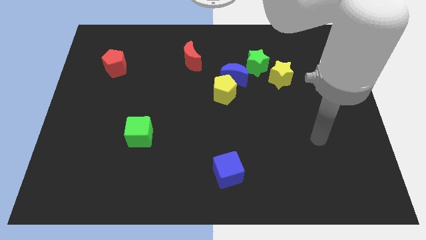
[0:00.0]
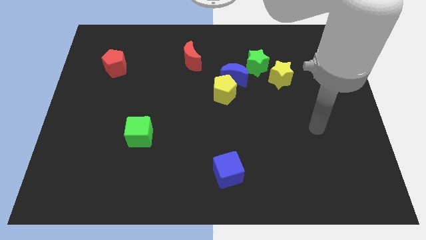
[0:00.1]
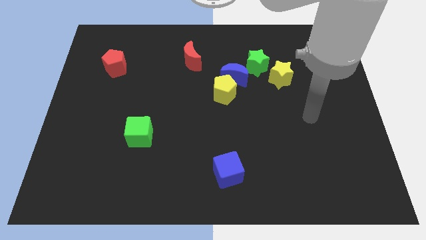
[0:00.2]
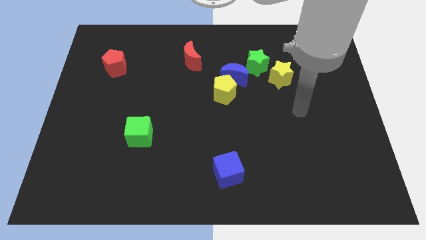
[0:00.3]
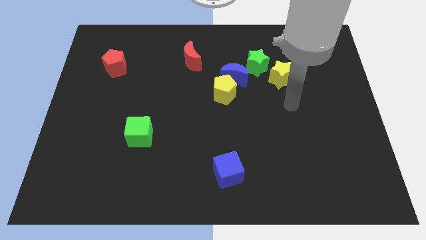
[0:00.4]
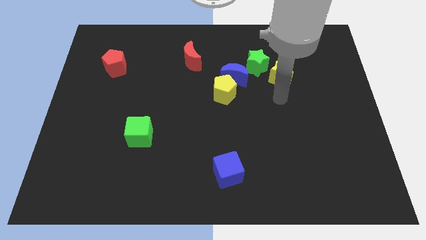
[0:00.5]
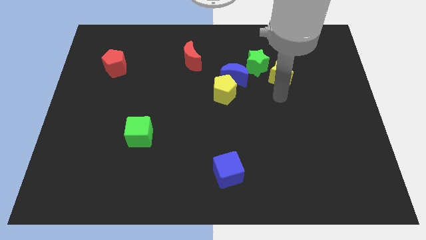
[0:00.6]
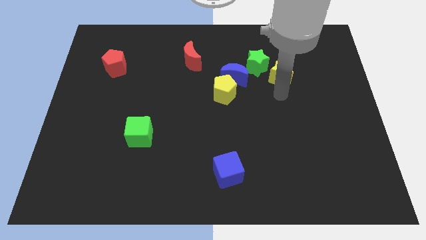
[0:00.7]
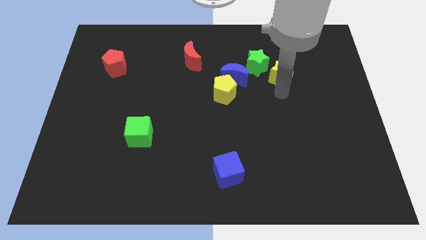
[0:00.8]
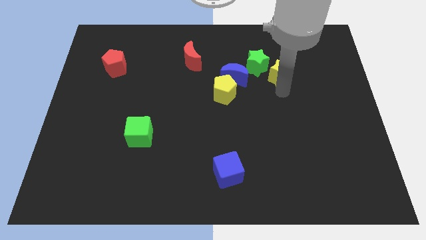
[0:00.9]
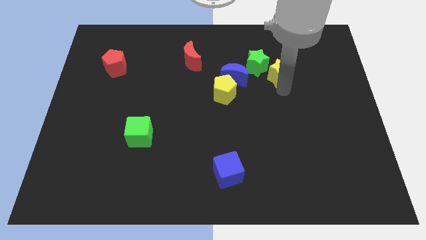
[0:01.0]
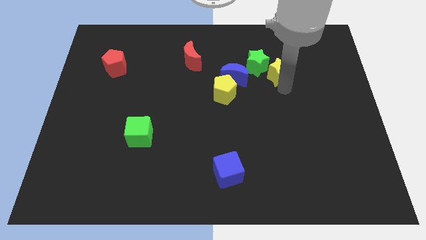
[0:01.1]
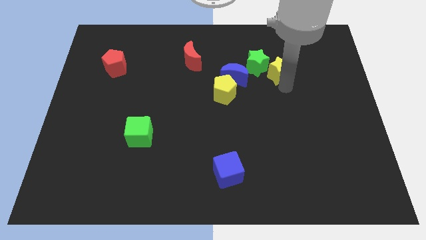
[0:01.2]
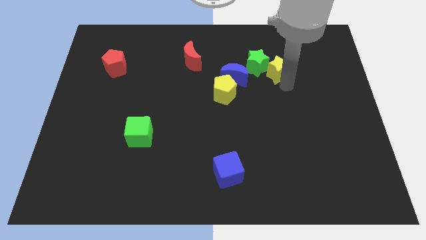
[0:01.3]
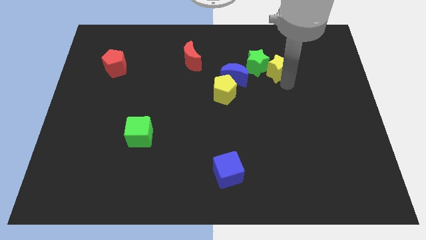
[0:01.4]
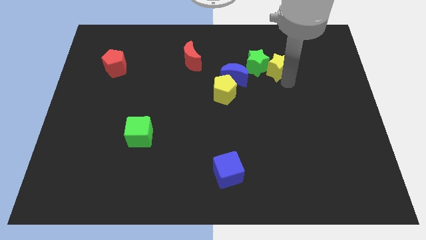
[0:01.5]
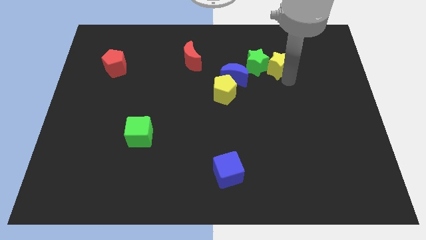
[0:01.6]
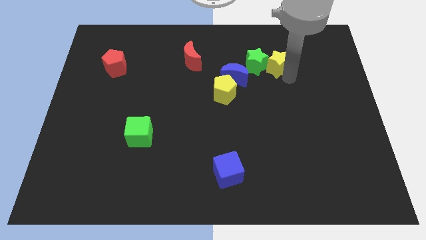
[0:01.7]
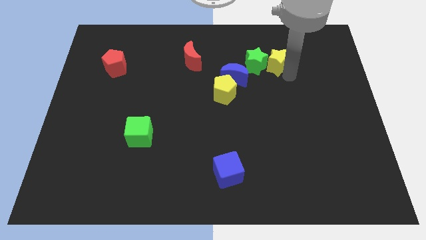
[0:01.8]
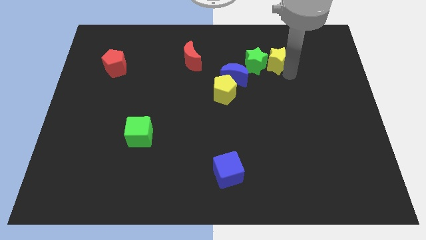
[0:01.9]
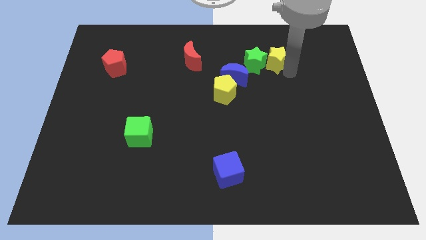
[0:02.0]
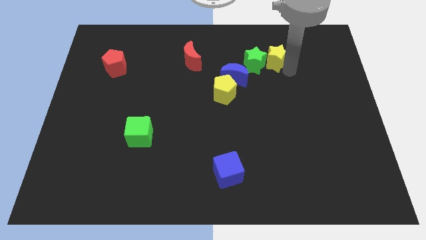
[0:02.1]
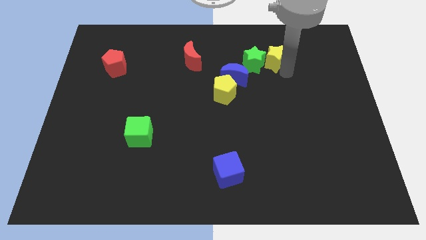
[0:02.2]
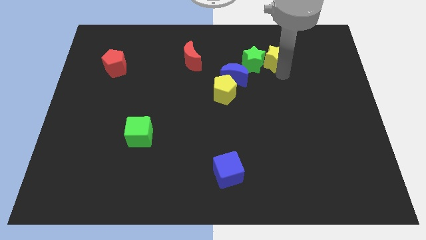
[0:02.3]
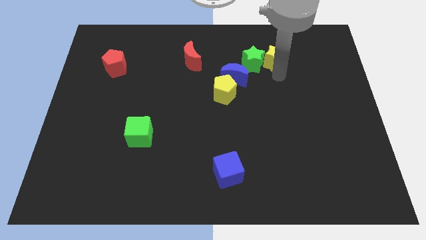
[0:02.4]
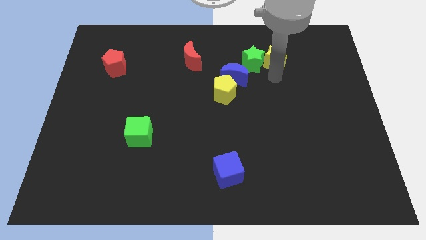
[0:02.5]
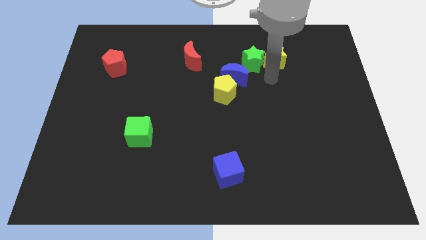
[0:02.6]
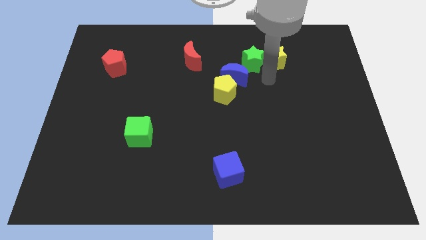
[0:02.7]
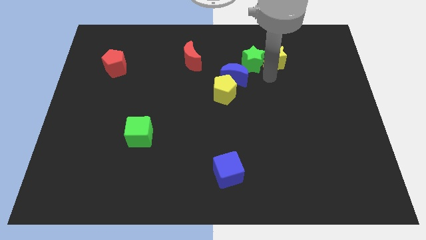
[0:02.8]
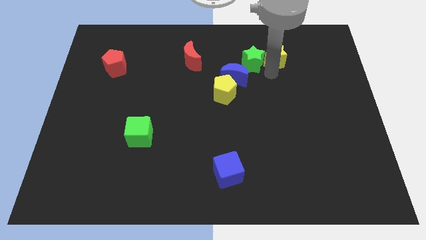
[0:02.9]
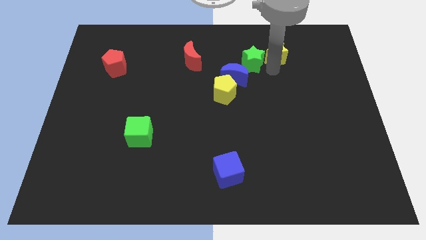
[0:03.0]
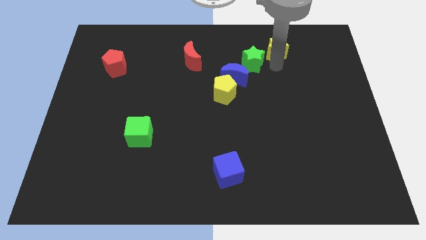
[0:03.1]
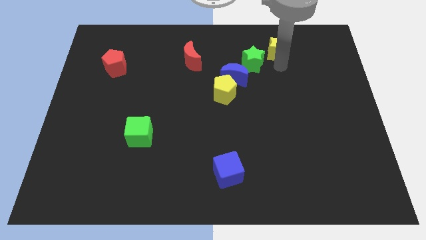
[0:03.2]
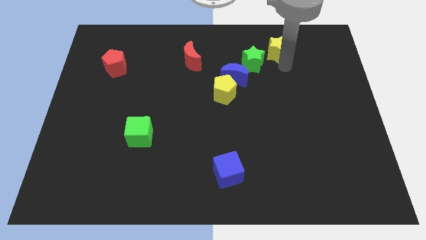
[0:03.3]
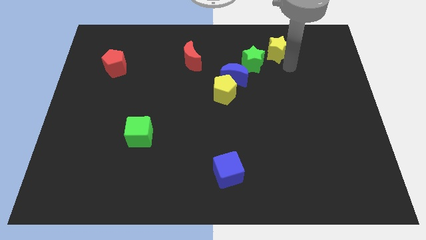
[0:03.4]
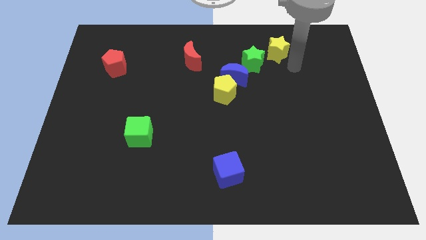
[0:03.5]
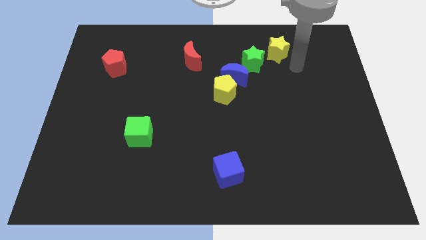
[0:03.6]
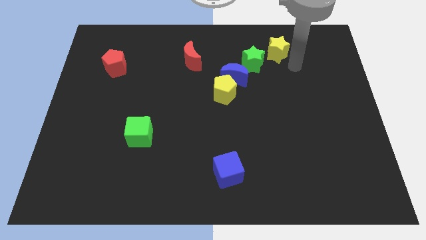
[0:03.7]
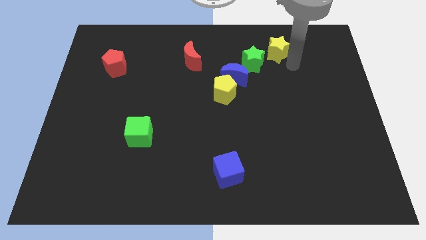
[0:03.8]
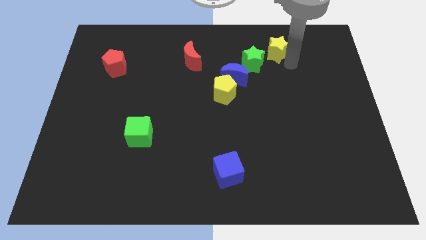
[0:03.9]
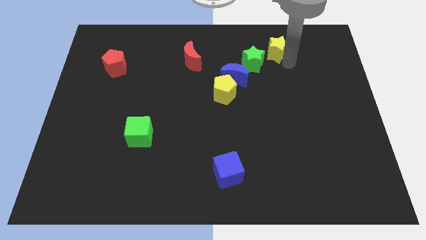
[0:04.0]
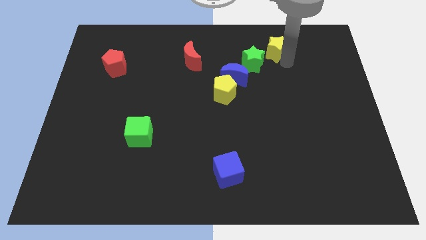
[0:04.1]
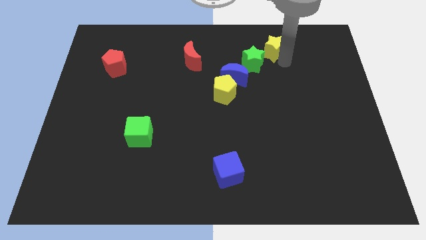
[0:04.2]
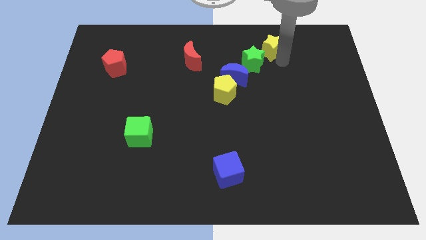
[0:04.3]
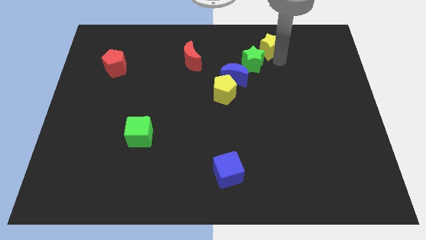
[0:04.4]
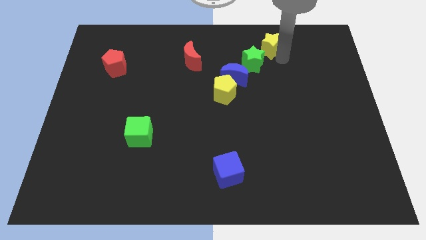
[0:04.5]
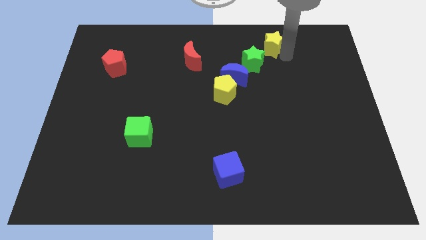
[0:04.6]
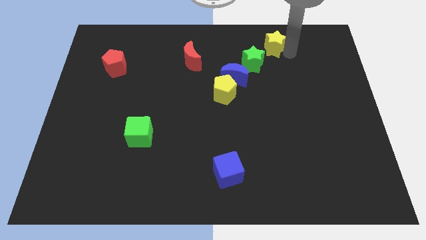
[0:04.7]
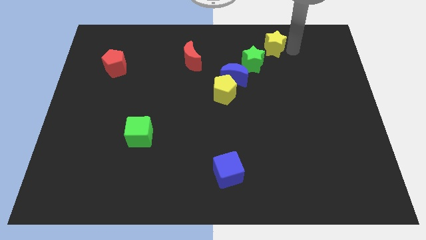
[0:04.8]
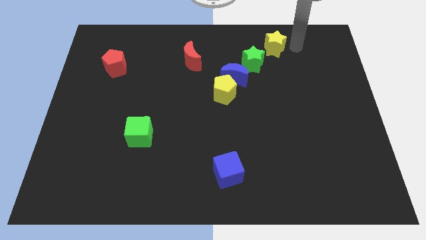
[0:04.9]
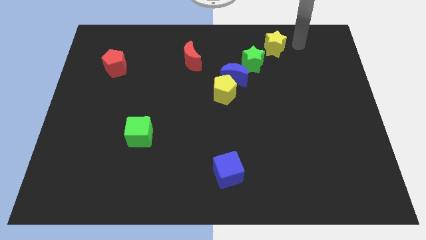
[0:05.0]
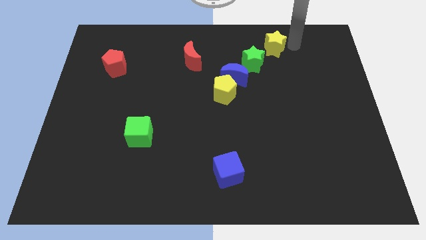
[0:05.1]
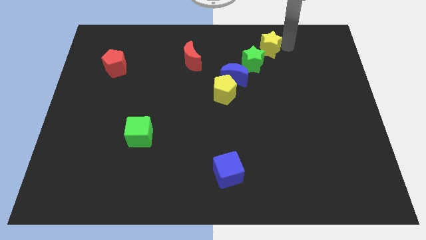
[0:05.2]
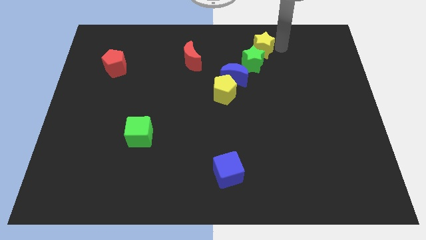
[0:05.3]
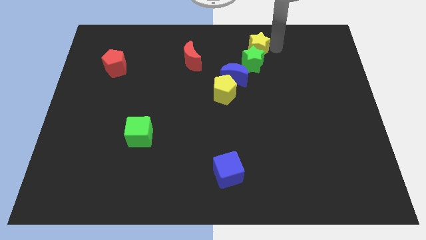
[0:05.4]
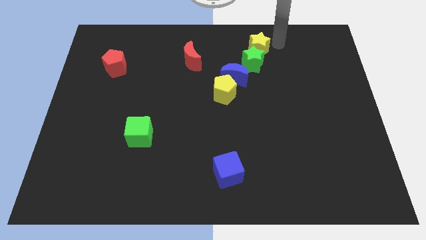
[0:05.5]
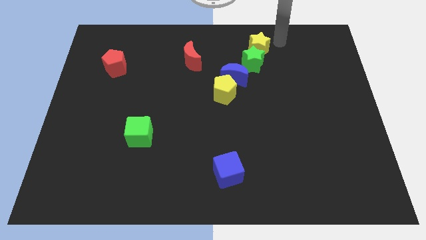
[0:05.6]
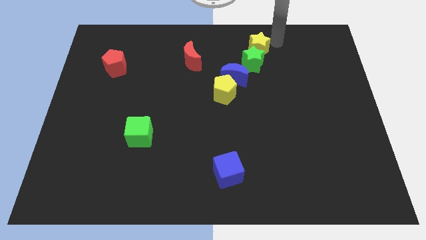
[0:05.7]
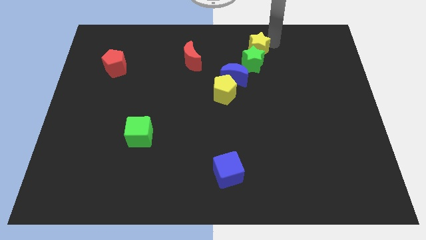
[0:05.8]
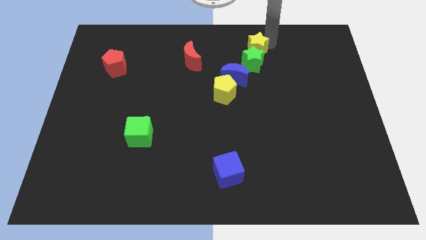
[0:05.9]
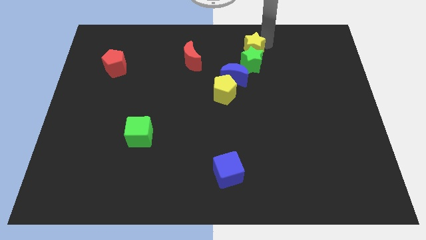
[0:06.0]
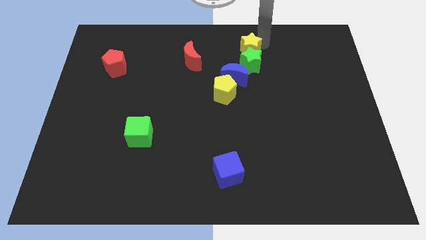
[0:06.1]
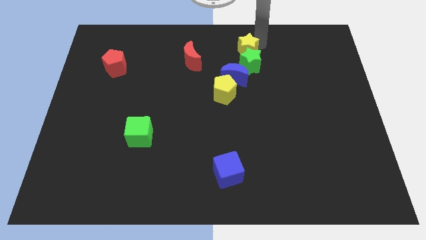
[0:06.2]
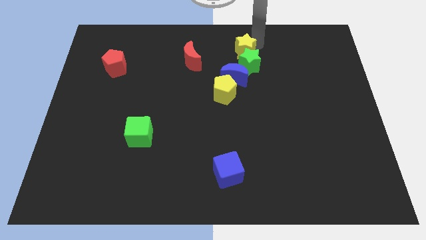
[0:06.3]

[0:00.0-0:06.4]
push the yellow star just right of the red moon

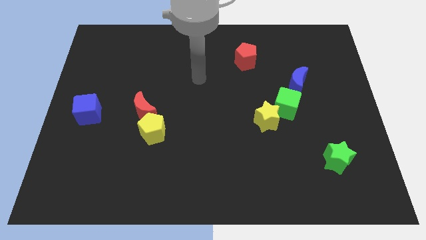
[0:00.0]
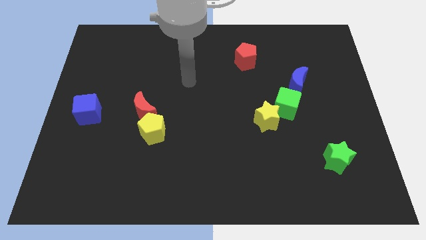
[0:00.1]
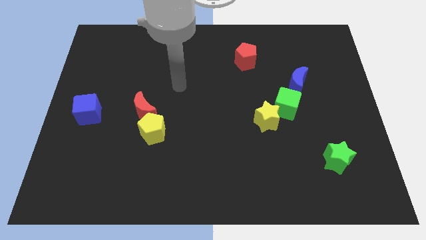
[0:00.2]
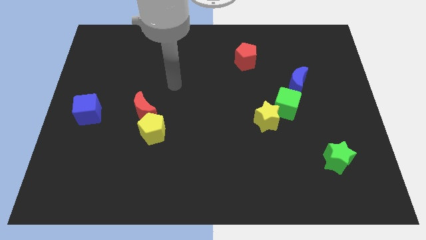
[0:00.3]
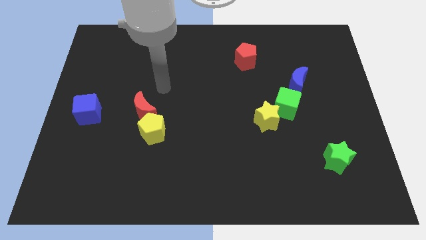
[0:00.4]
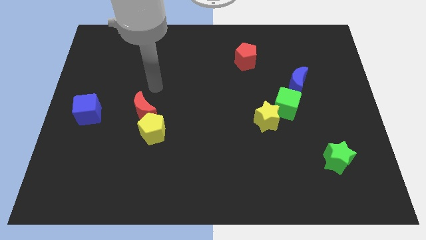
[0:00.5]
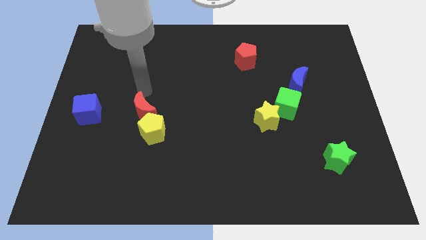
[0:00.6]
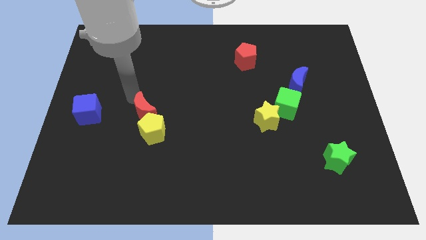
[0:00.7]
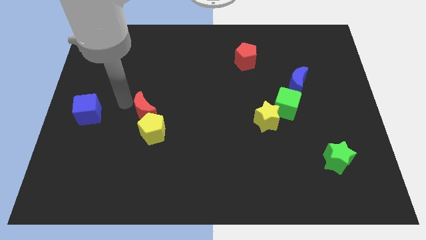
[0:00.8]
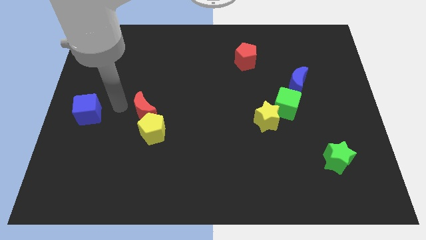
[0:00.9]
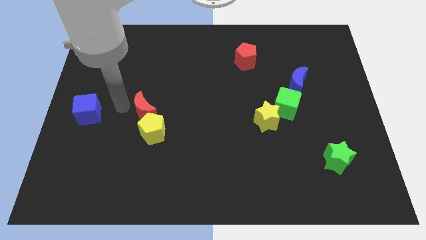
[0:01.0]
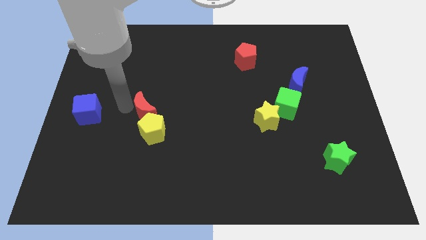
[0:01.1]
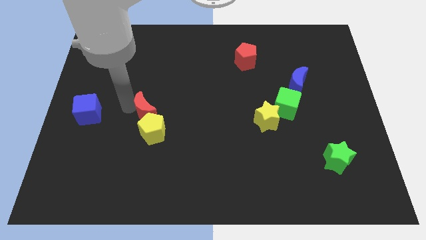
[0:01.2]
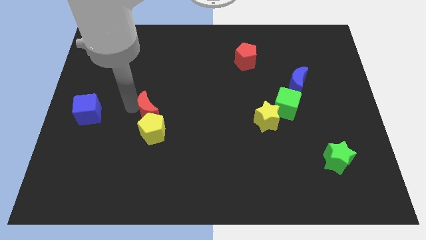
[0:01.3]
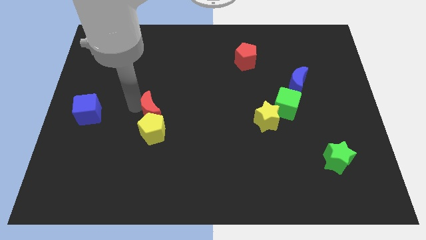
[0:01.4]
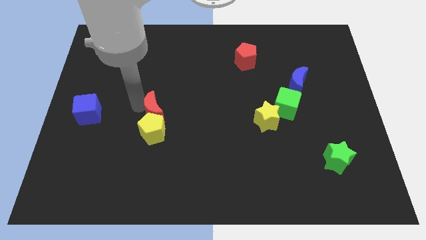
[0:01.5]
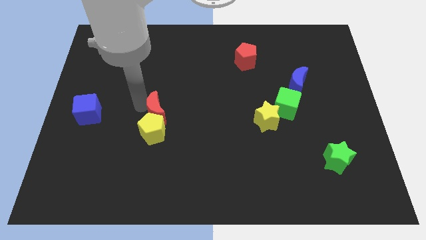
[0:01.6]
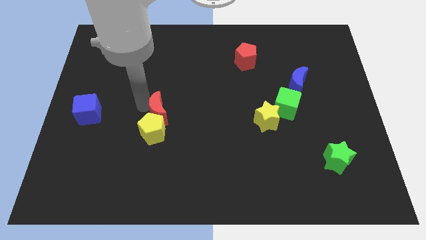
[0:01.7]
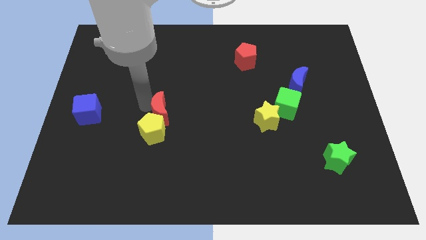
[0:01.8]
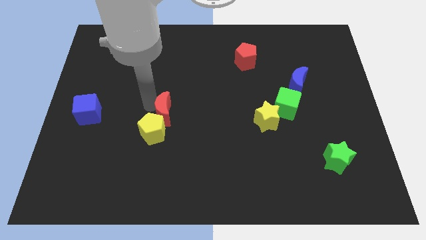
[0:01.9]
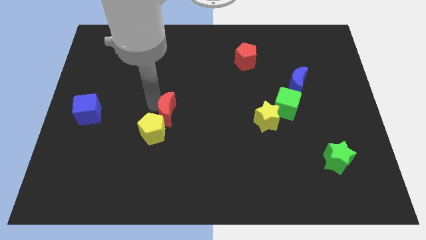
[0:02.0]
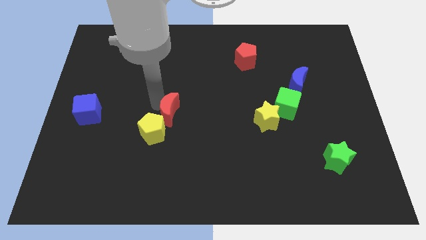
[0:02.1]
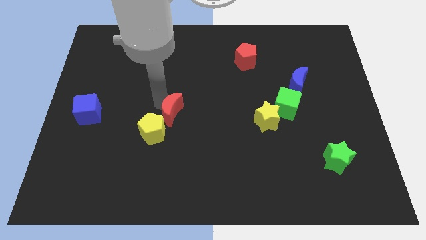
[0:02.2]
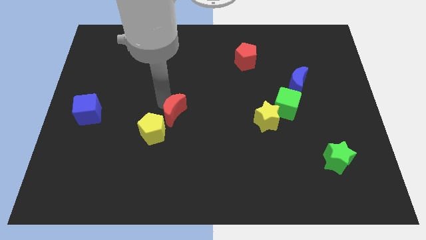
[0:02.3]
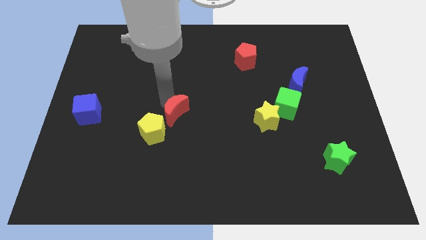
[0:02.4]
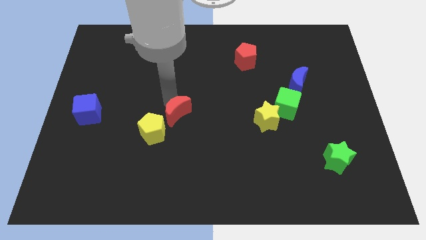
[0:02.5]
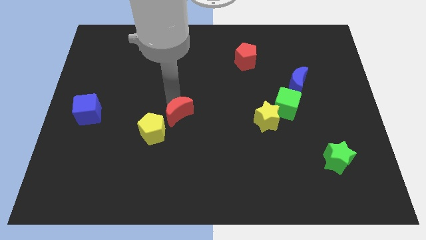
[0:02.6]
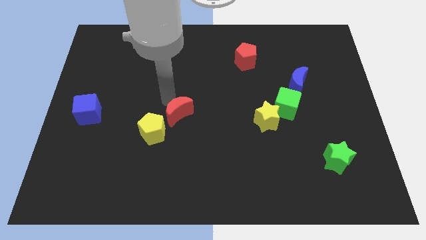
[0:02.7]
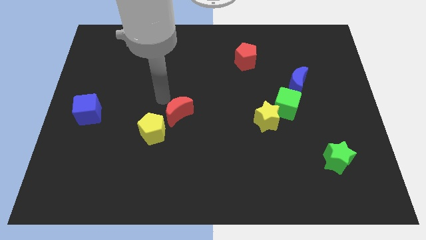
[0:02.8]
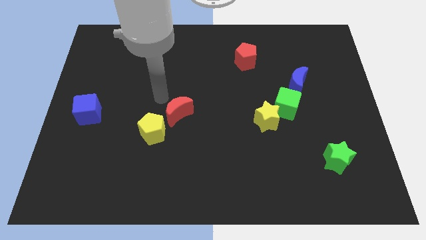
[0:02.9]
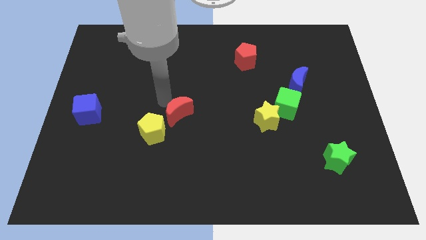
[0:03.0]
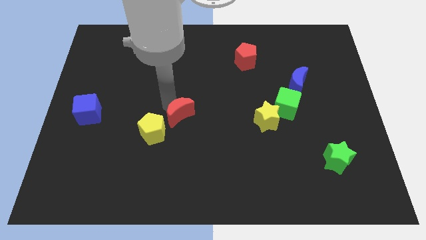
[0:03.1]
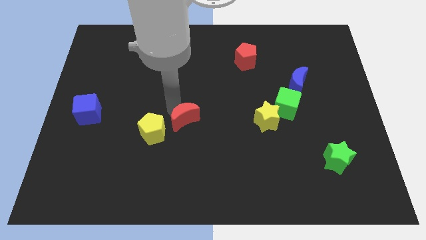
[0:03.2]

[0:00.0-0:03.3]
put the red moon to the right of the yellow pentagon
